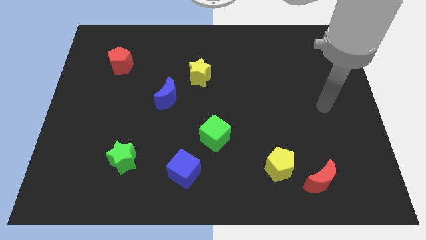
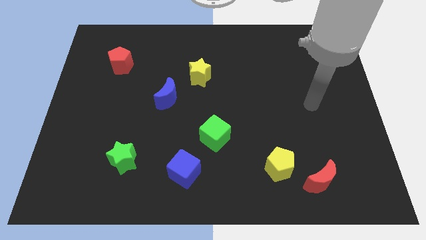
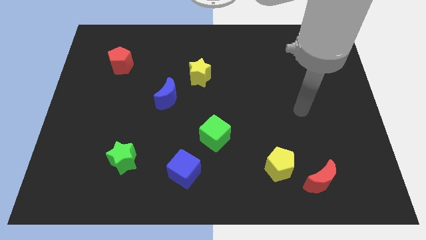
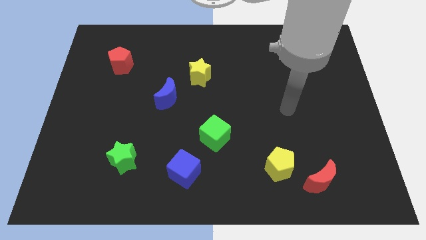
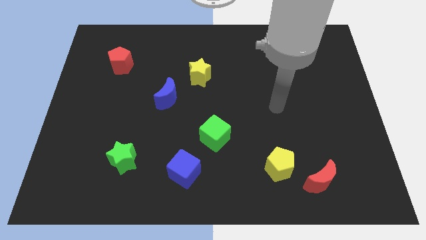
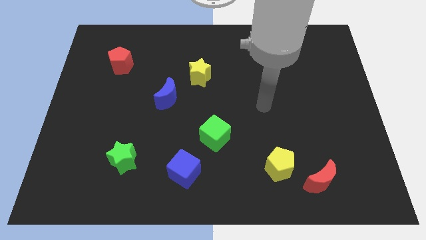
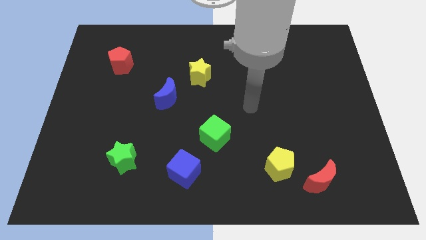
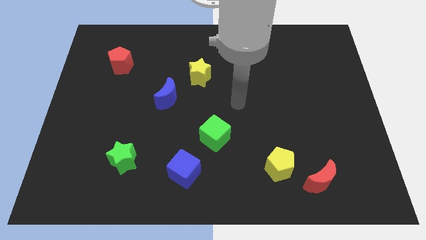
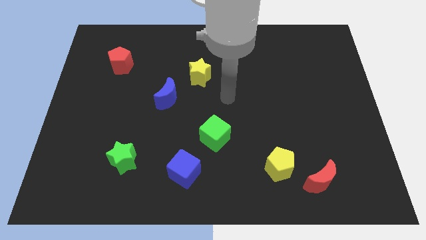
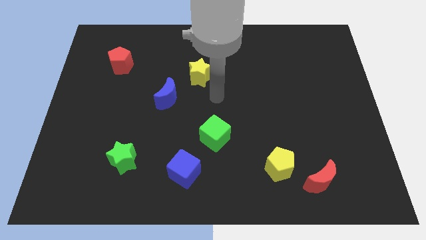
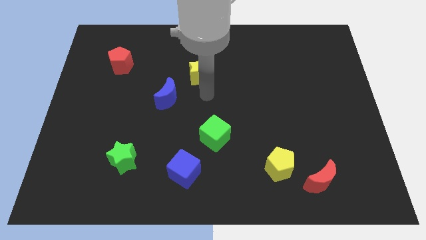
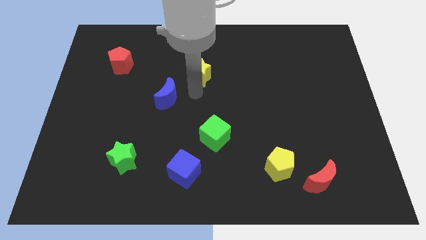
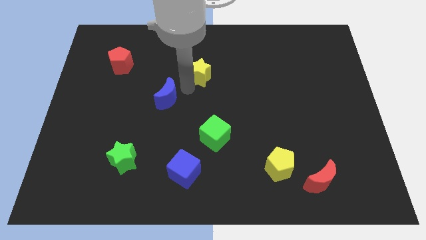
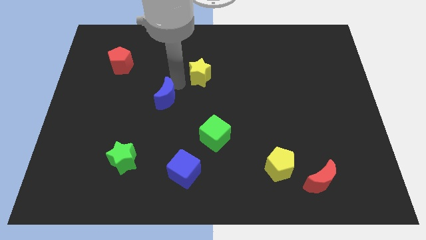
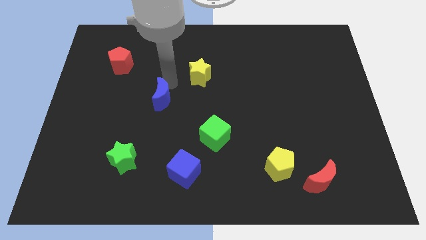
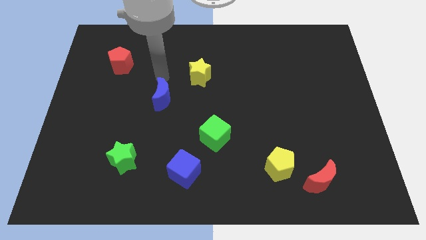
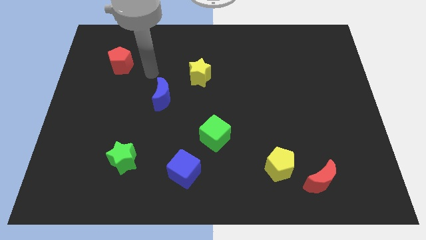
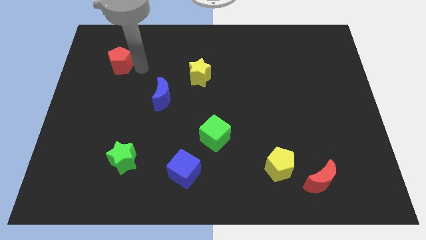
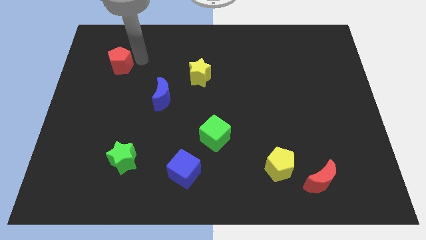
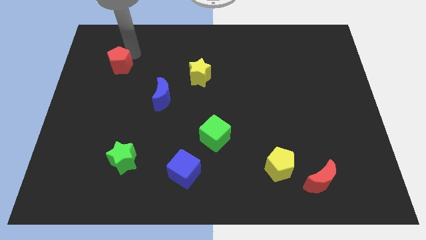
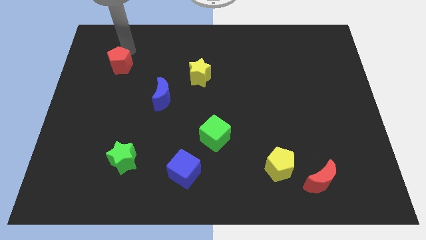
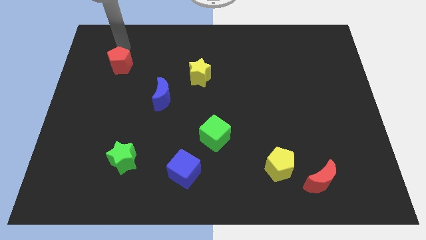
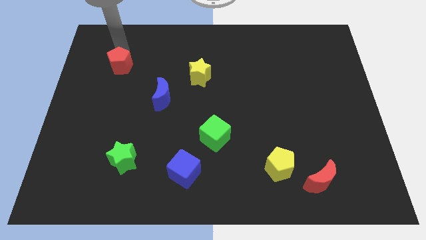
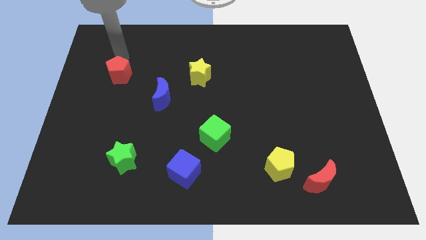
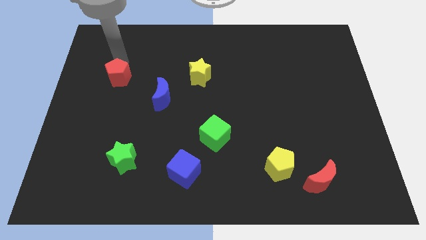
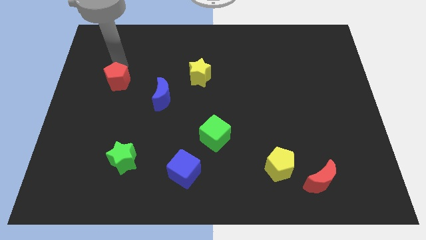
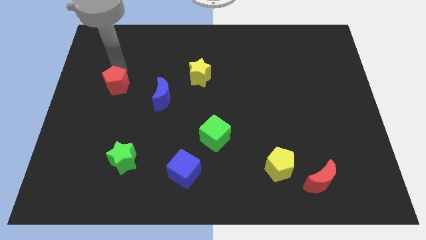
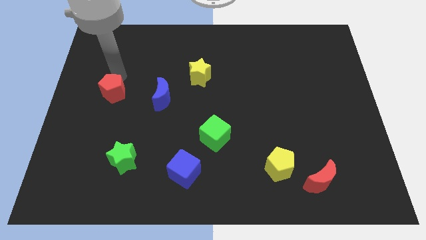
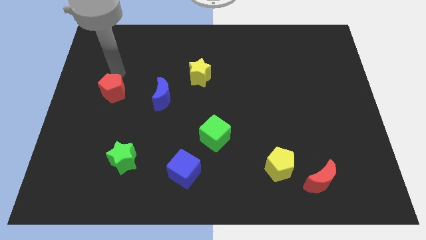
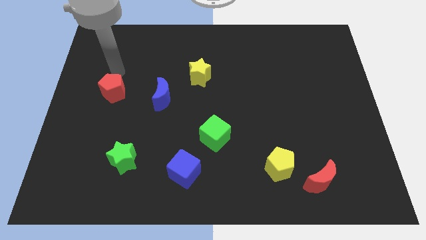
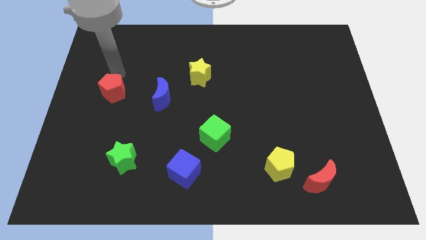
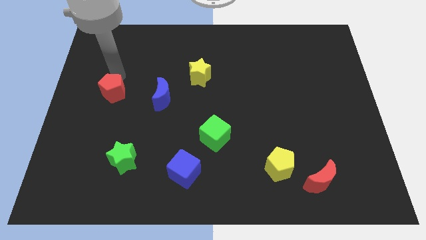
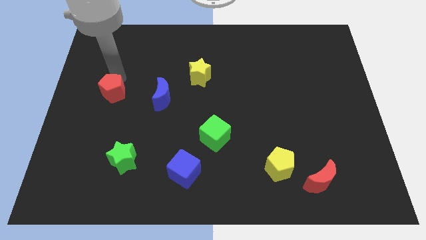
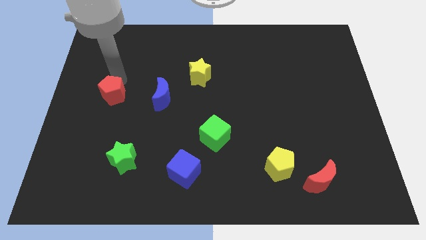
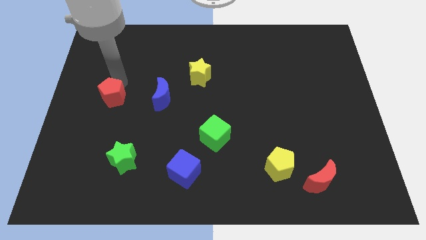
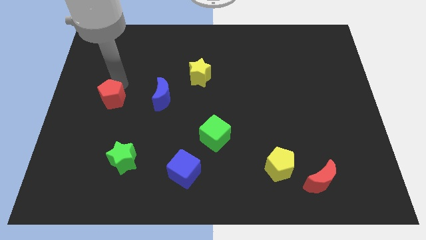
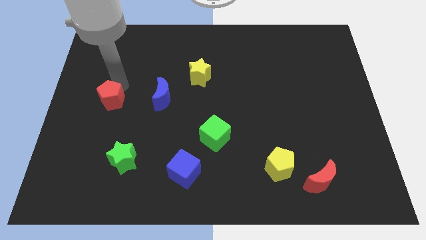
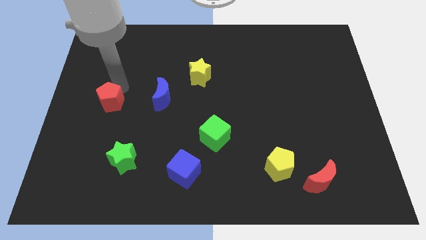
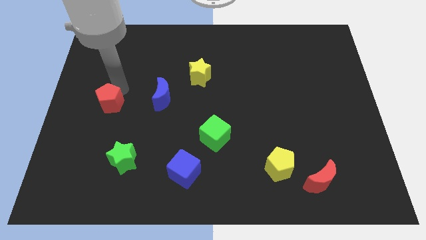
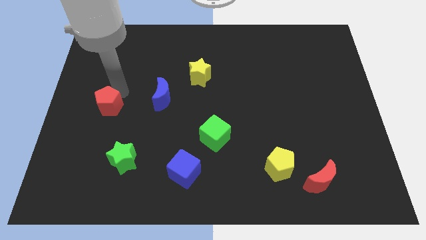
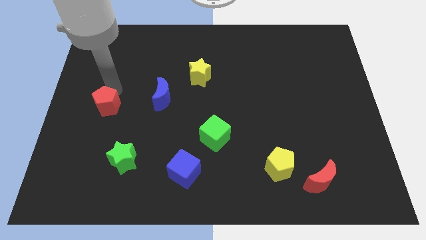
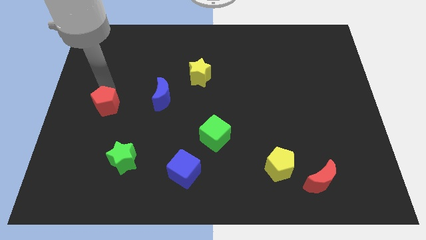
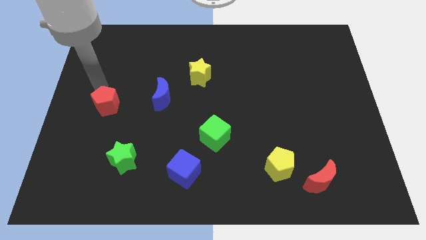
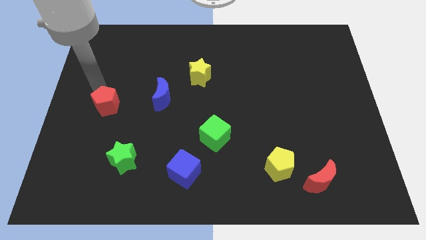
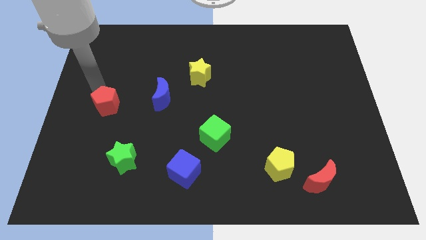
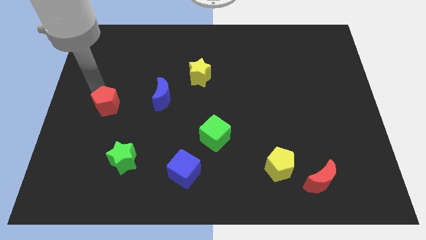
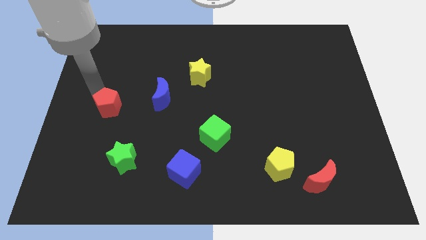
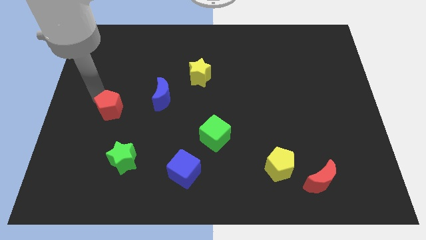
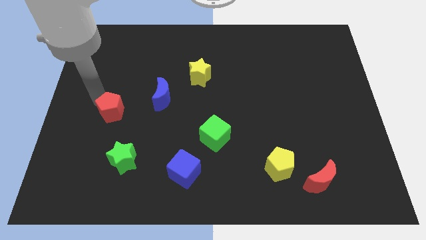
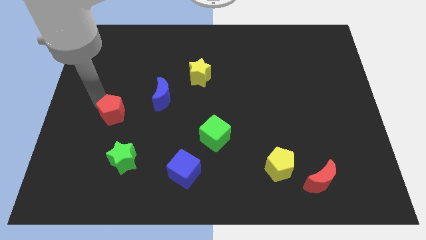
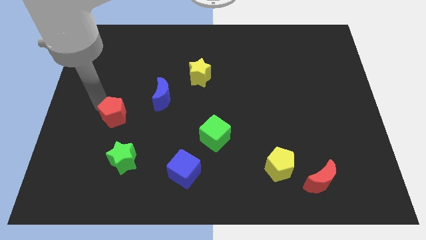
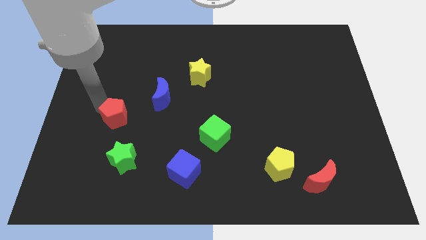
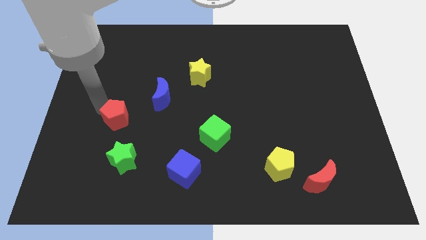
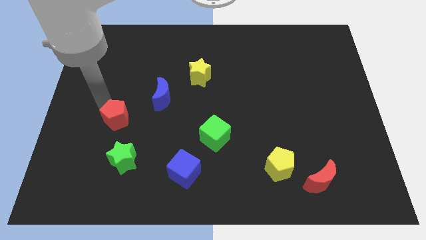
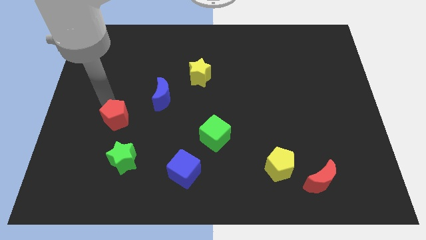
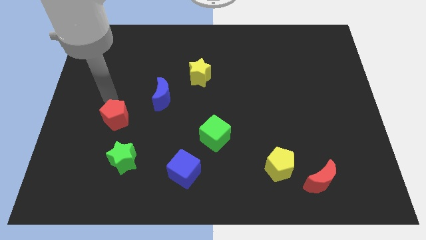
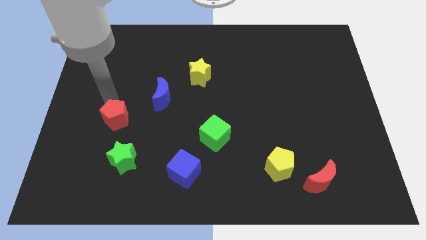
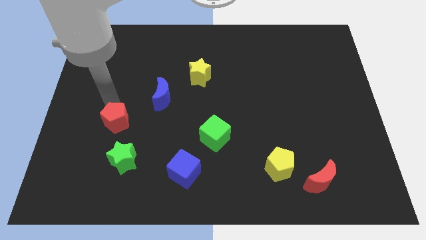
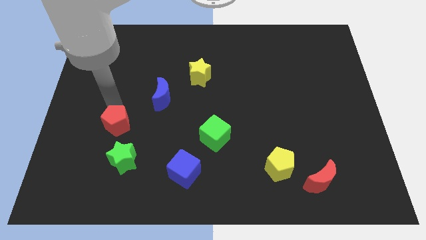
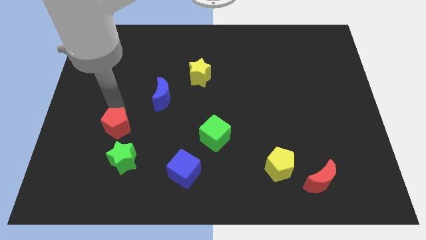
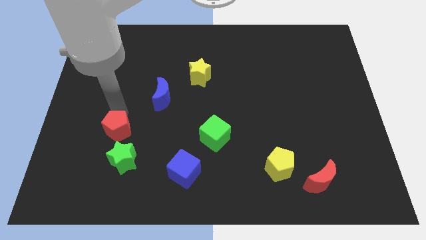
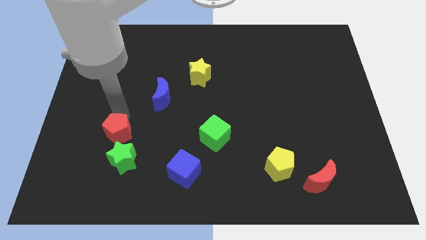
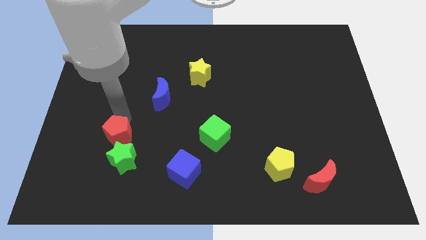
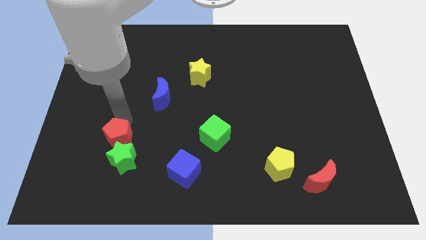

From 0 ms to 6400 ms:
put the red pentagon to the green star

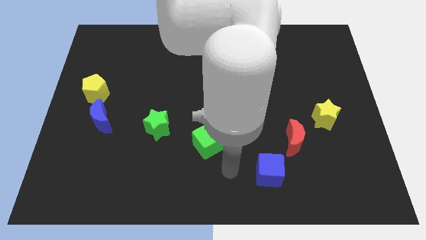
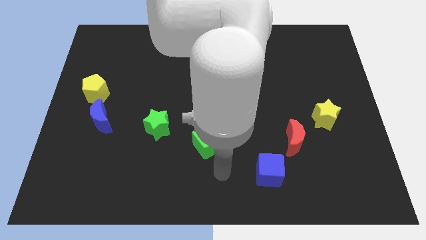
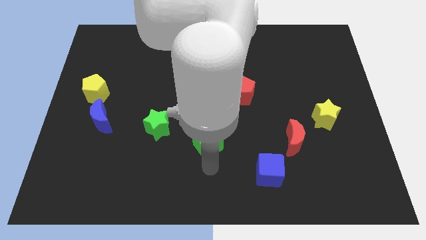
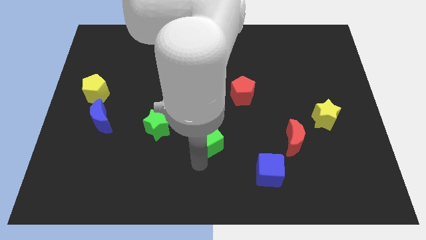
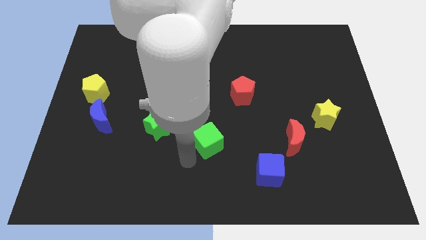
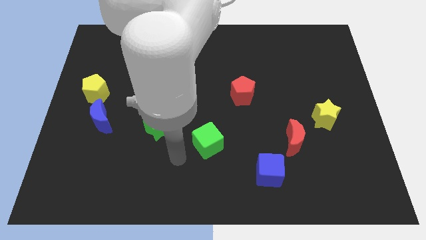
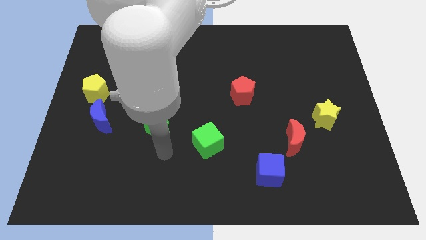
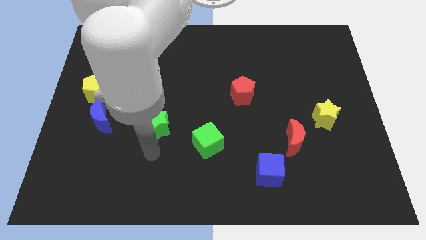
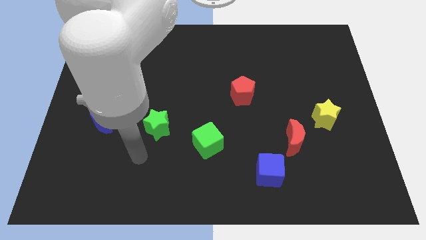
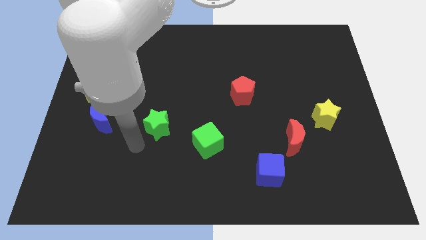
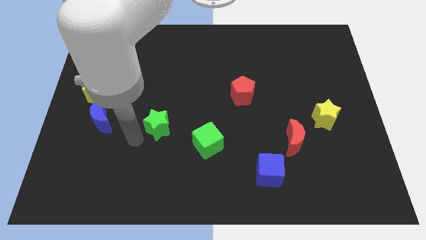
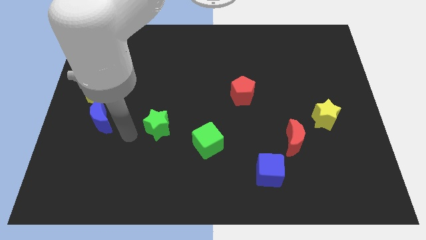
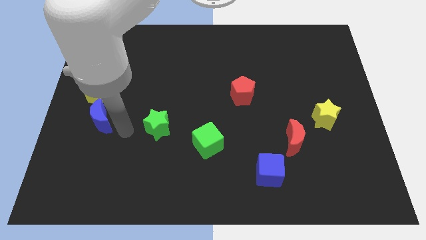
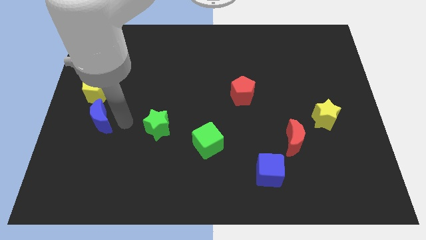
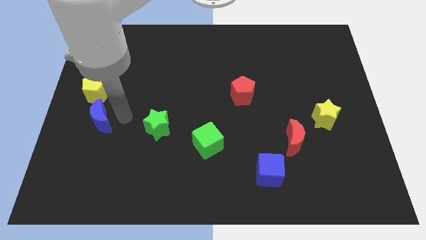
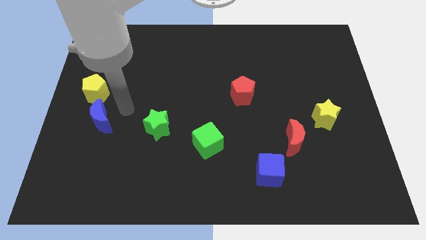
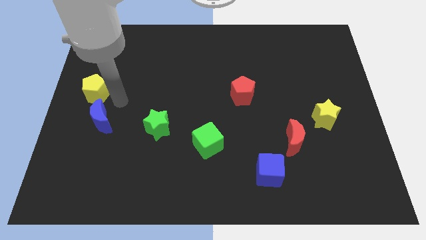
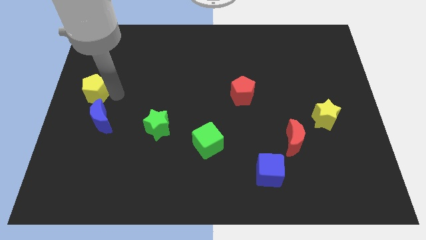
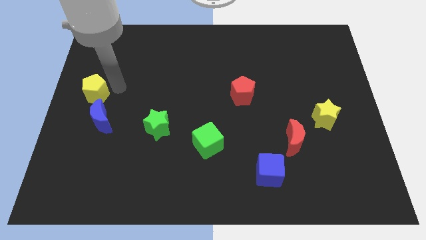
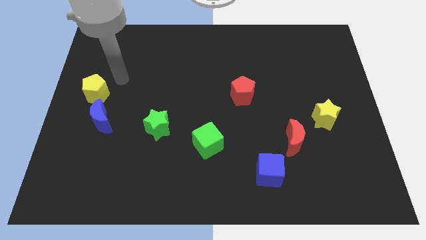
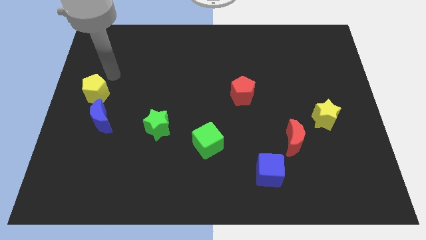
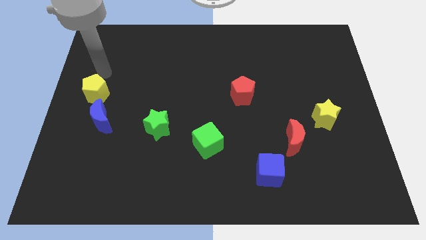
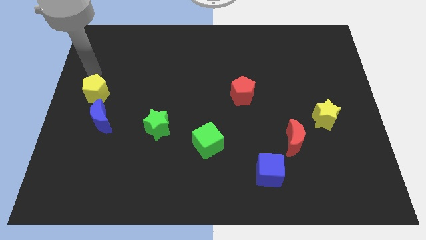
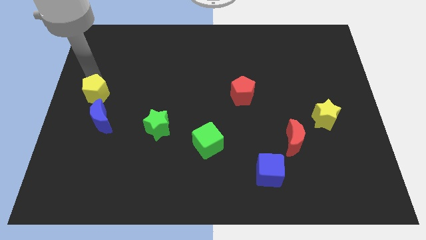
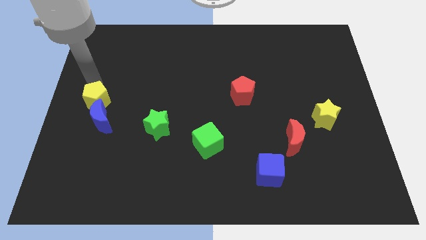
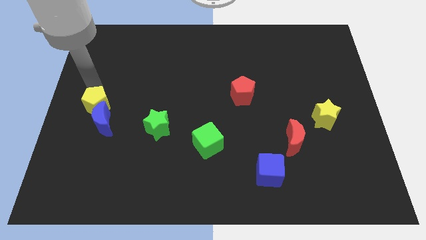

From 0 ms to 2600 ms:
push the yellow pentagon next to the blue moon
